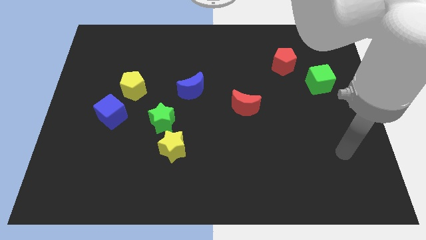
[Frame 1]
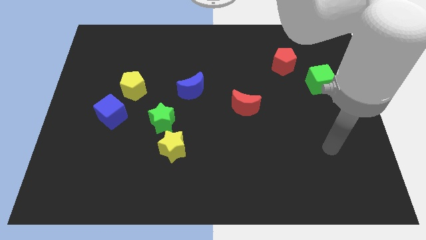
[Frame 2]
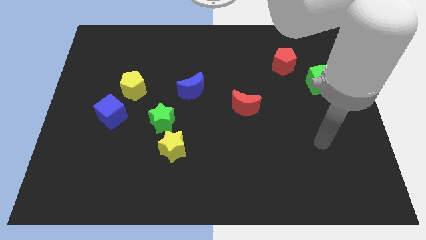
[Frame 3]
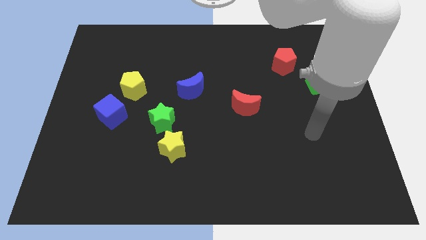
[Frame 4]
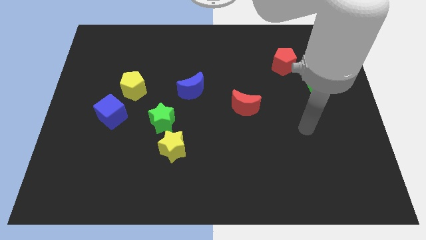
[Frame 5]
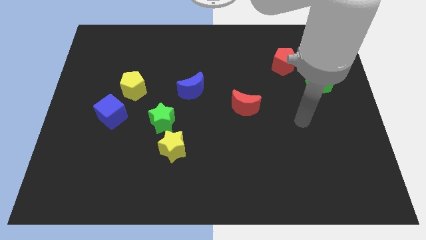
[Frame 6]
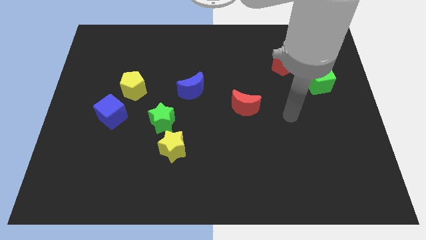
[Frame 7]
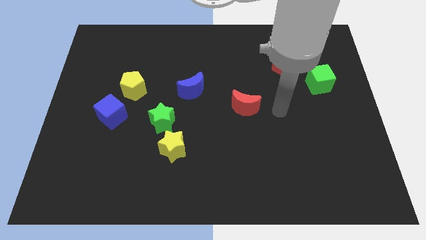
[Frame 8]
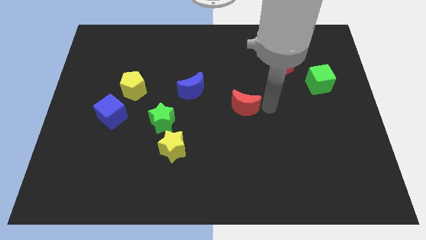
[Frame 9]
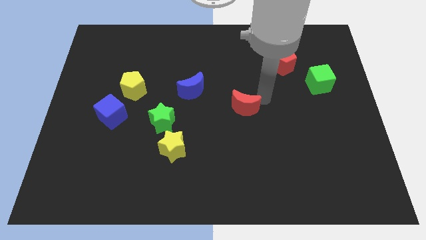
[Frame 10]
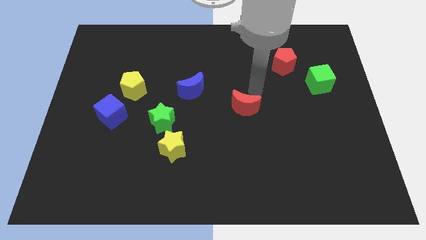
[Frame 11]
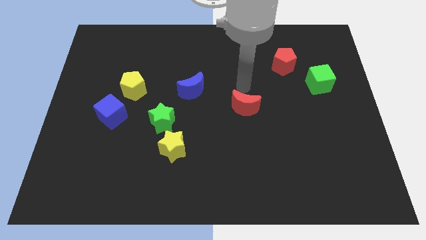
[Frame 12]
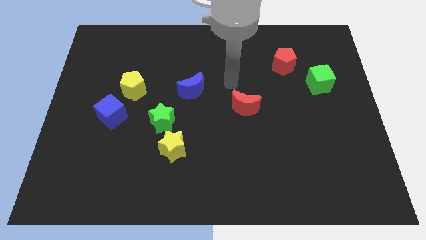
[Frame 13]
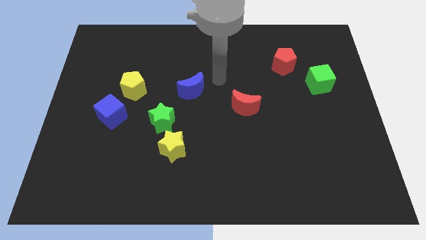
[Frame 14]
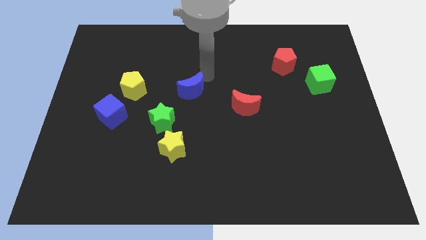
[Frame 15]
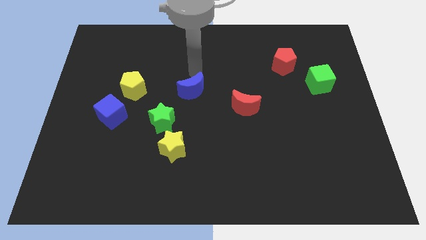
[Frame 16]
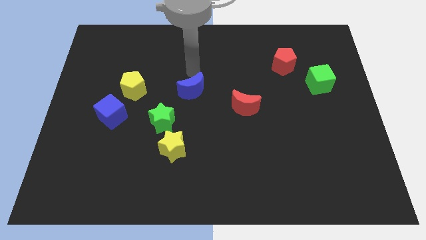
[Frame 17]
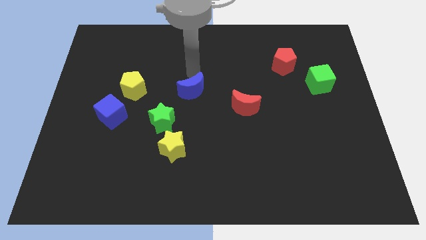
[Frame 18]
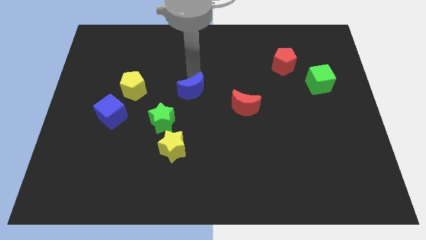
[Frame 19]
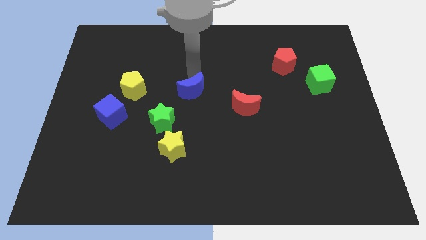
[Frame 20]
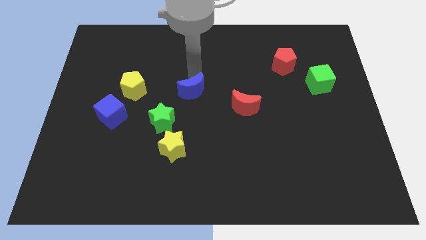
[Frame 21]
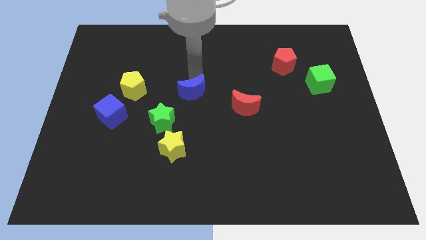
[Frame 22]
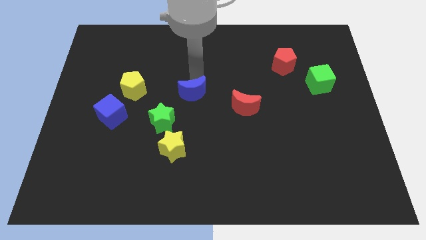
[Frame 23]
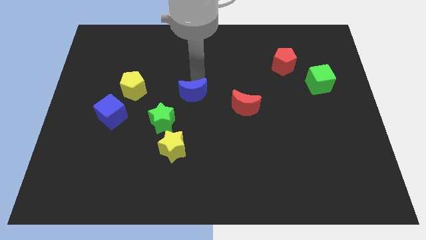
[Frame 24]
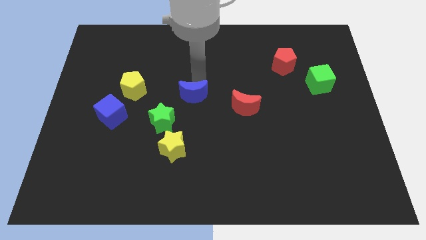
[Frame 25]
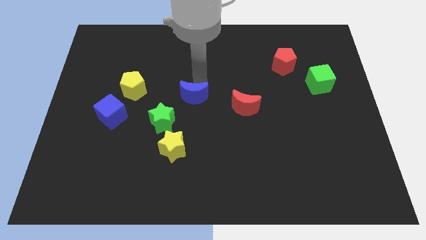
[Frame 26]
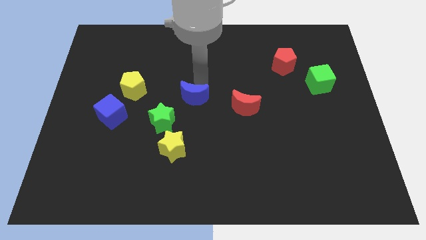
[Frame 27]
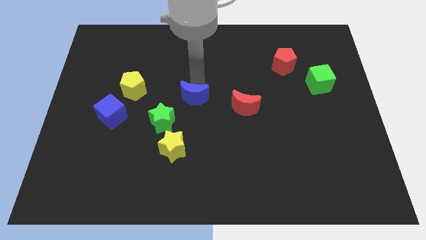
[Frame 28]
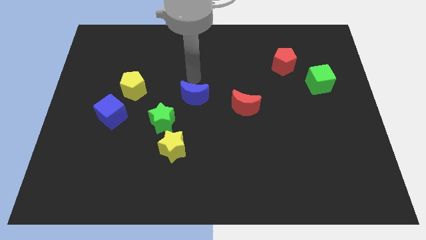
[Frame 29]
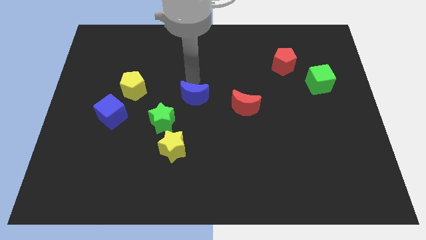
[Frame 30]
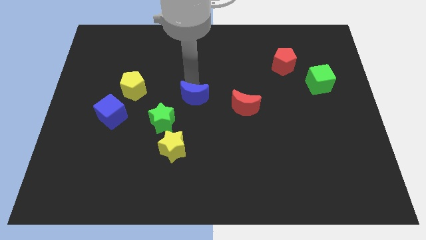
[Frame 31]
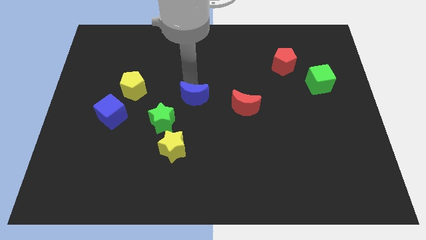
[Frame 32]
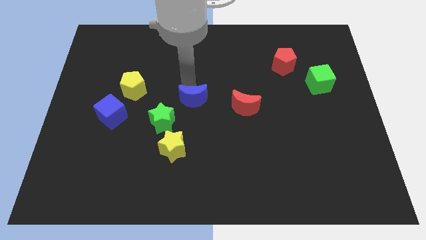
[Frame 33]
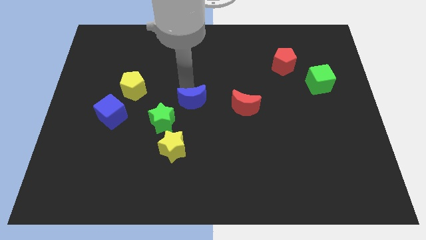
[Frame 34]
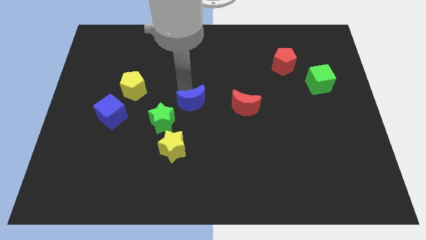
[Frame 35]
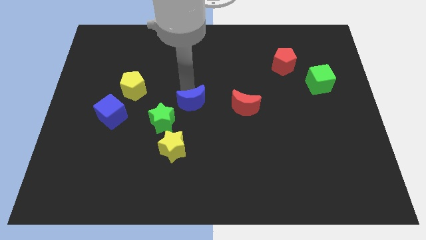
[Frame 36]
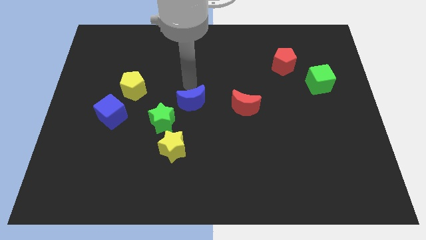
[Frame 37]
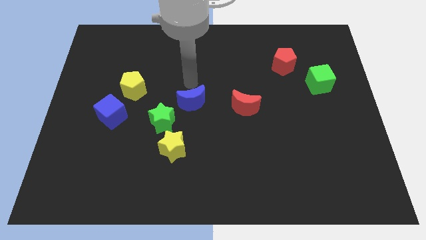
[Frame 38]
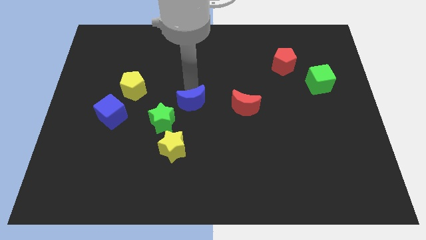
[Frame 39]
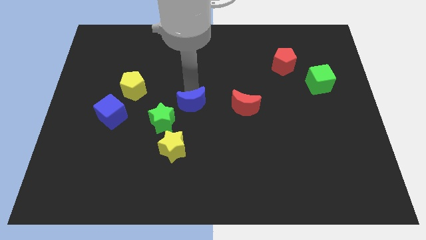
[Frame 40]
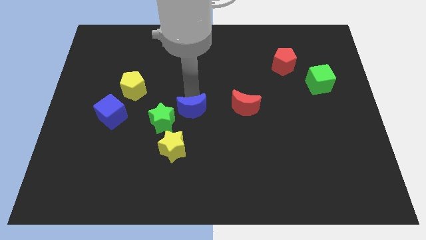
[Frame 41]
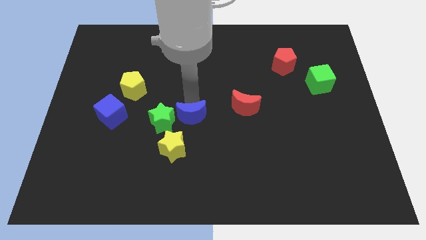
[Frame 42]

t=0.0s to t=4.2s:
move the blue moon a bit downwards

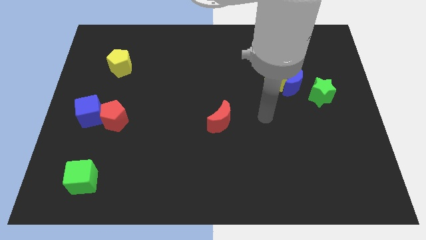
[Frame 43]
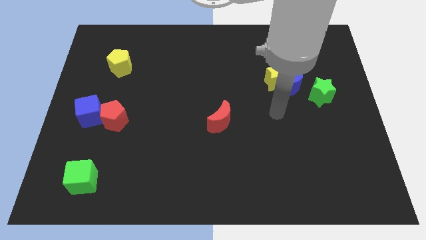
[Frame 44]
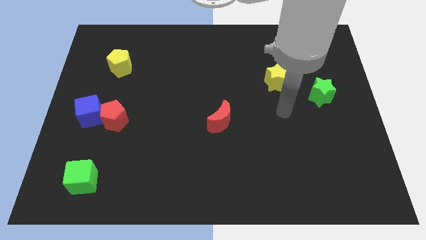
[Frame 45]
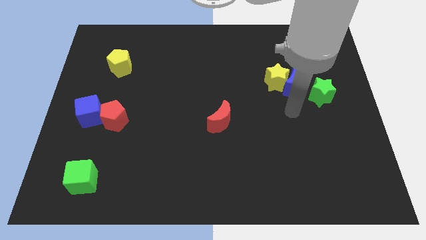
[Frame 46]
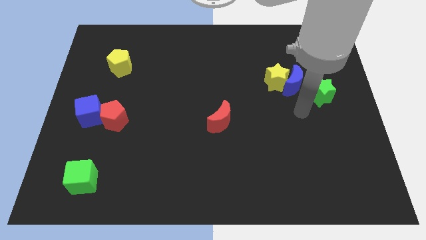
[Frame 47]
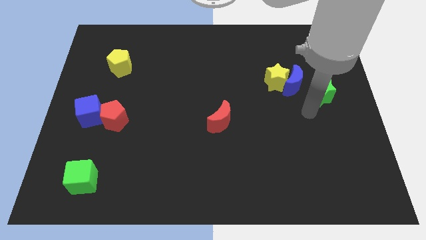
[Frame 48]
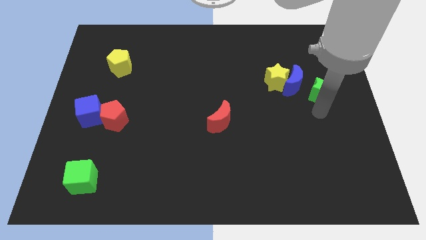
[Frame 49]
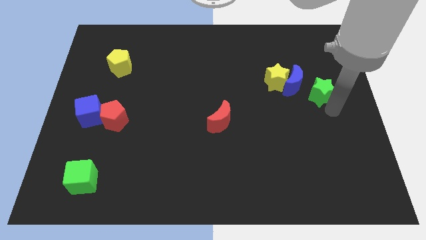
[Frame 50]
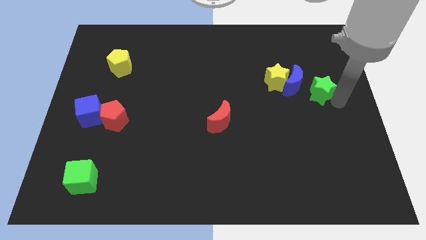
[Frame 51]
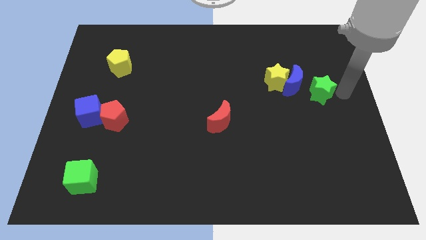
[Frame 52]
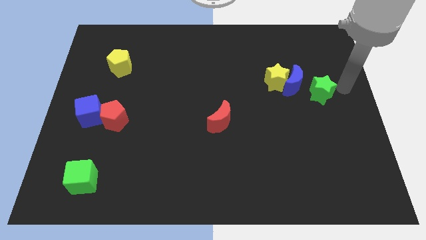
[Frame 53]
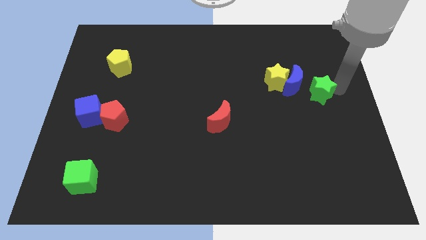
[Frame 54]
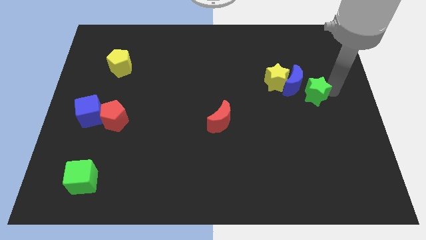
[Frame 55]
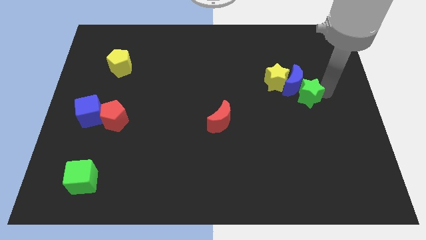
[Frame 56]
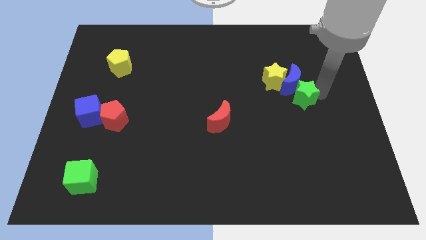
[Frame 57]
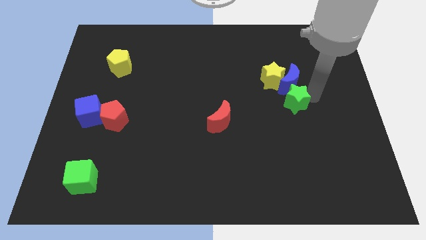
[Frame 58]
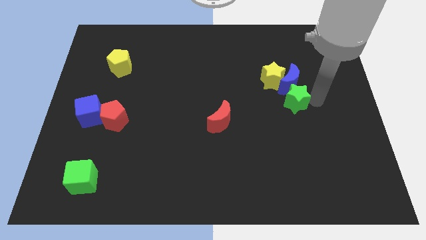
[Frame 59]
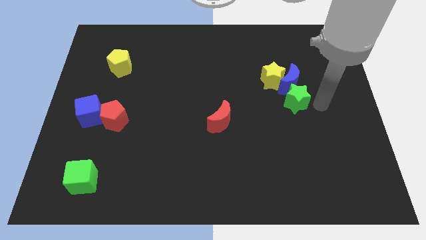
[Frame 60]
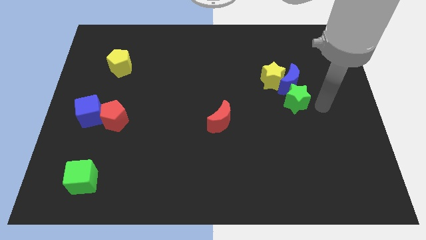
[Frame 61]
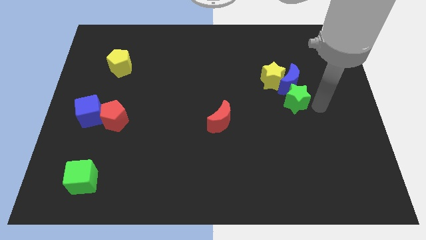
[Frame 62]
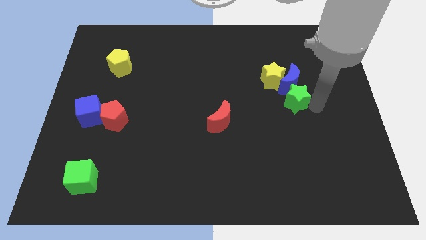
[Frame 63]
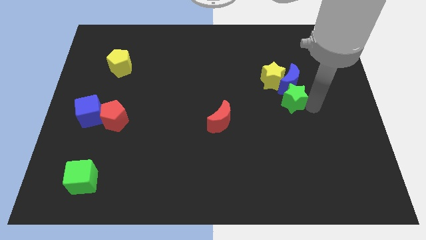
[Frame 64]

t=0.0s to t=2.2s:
slide the green star slightly left

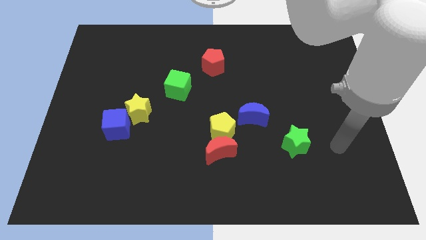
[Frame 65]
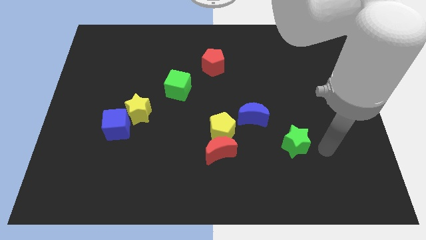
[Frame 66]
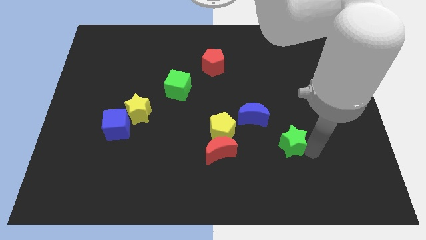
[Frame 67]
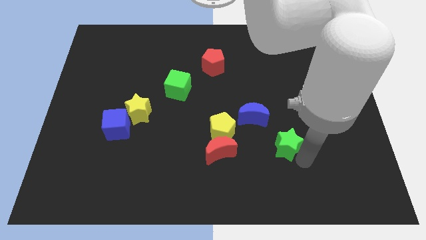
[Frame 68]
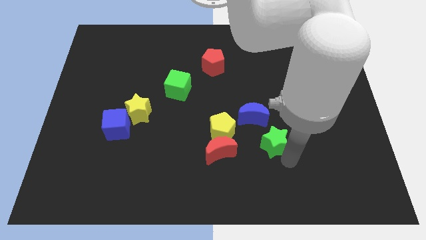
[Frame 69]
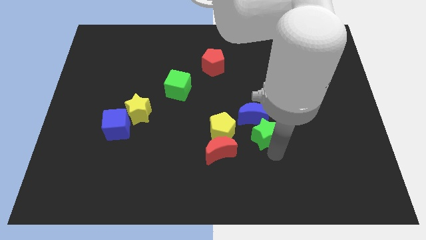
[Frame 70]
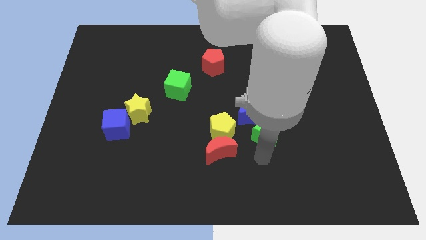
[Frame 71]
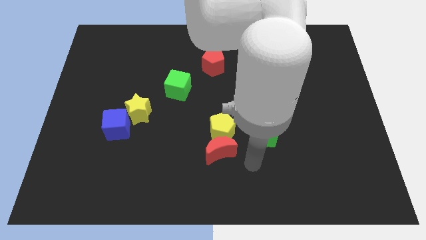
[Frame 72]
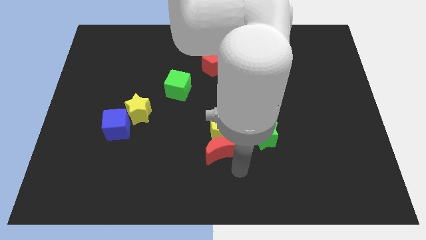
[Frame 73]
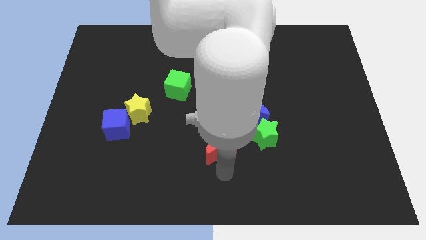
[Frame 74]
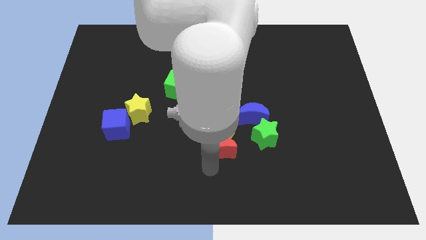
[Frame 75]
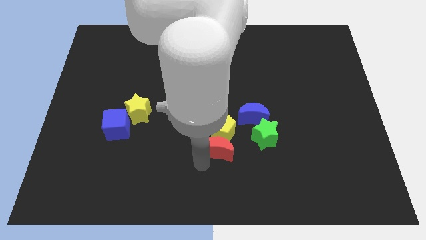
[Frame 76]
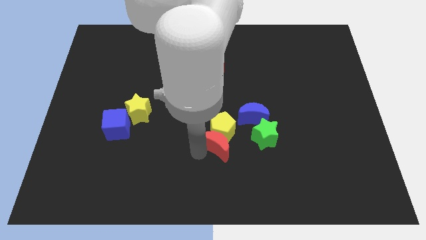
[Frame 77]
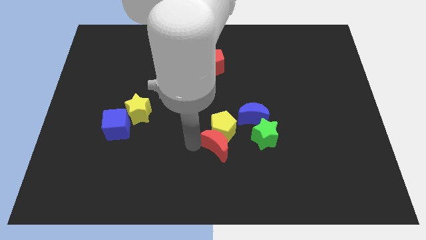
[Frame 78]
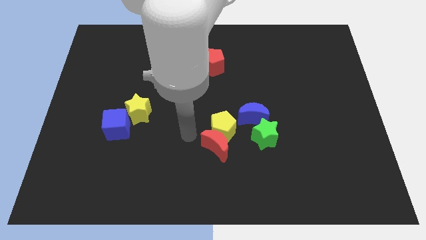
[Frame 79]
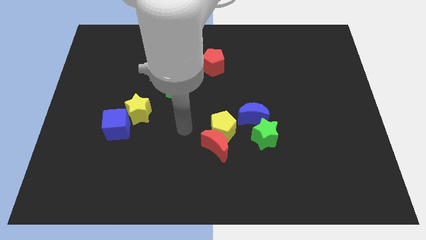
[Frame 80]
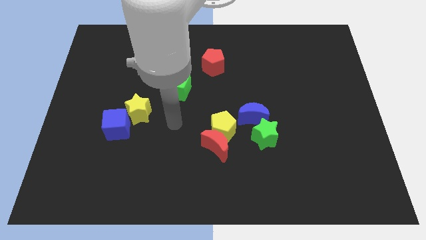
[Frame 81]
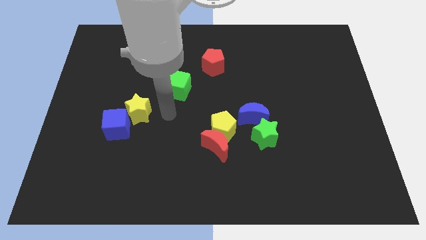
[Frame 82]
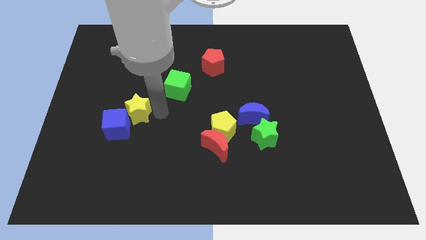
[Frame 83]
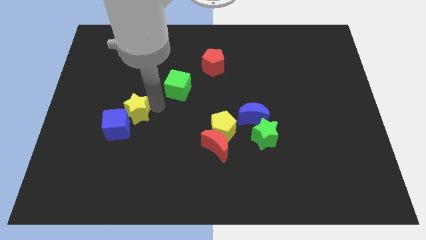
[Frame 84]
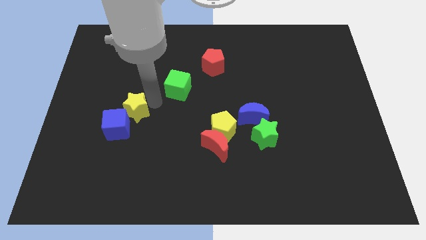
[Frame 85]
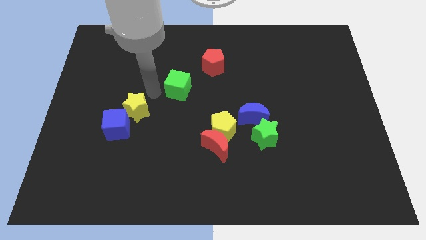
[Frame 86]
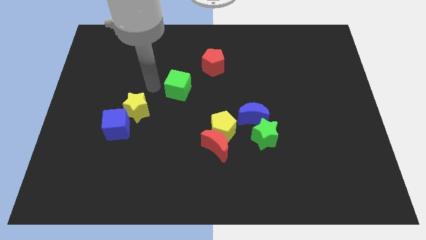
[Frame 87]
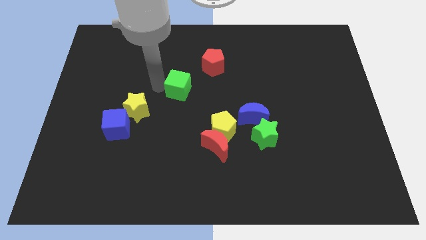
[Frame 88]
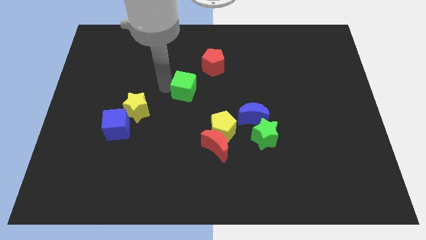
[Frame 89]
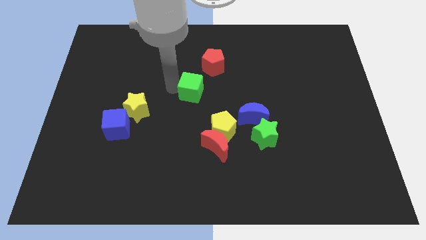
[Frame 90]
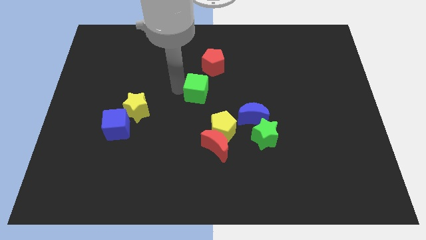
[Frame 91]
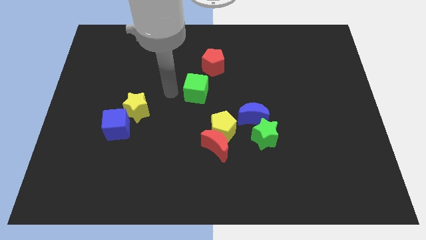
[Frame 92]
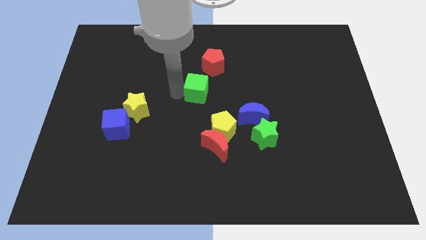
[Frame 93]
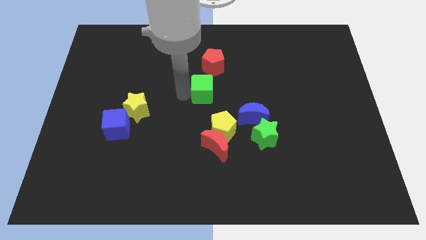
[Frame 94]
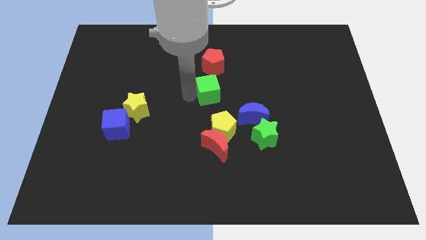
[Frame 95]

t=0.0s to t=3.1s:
slide the green cube a little bit right
